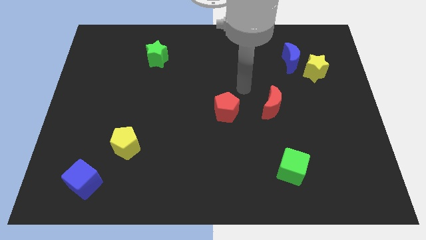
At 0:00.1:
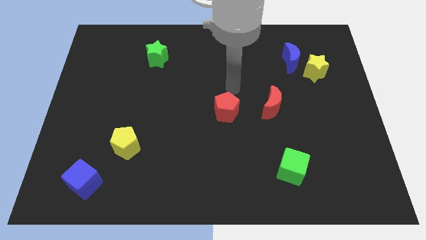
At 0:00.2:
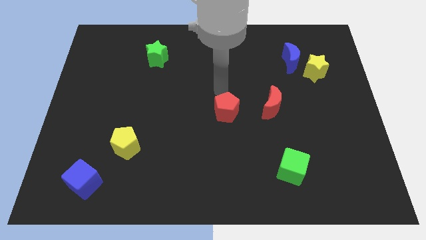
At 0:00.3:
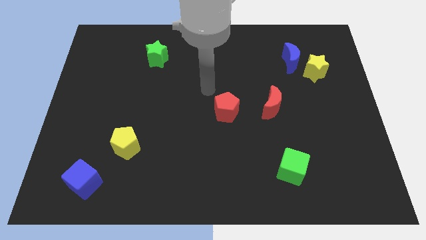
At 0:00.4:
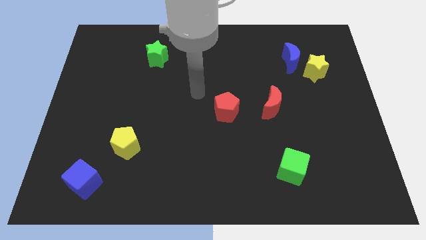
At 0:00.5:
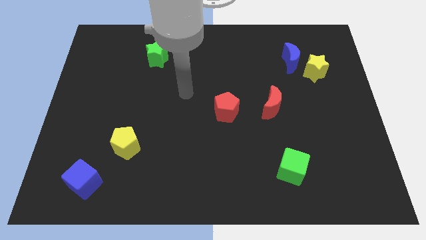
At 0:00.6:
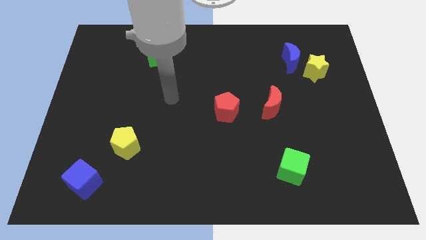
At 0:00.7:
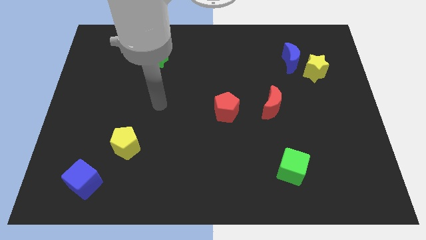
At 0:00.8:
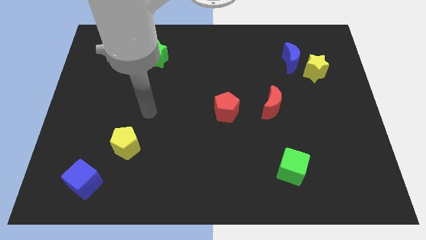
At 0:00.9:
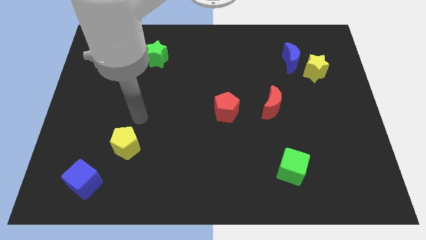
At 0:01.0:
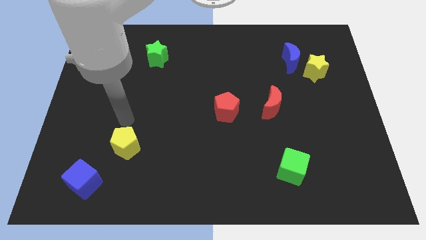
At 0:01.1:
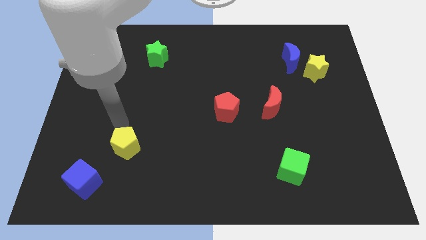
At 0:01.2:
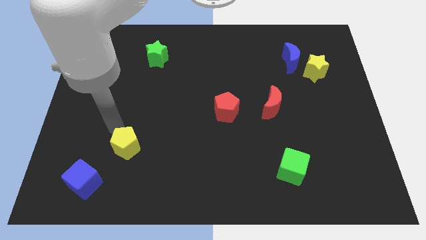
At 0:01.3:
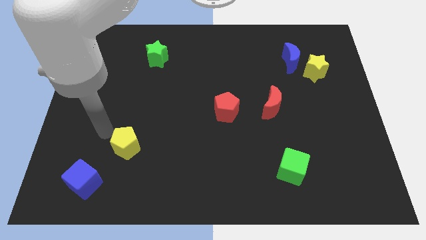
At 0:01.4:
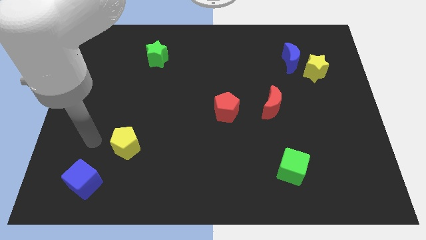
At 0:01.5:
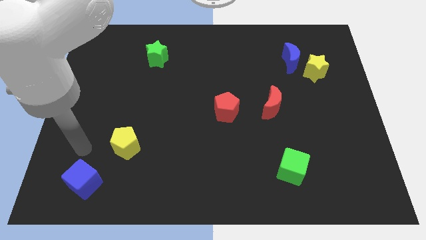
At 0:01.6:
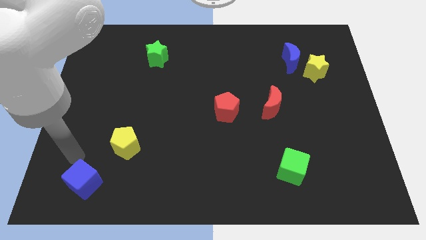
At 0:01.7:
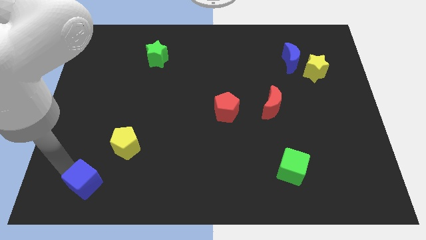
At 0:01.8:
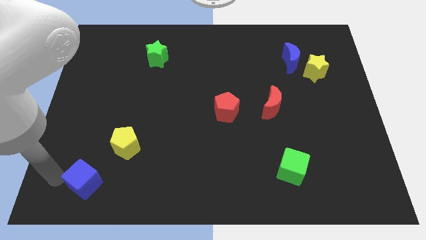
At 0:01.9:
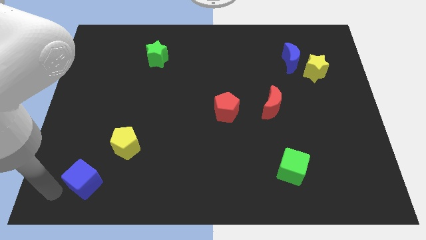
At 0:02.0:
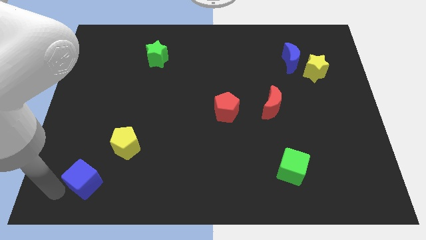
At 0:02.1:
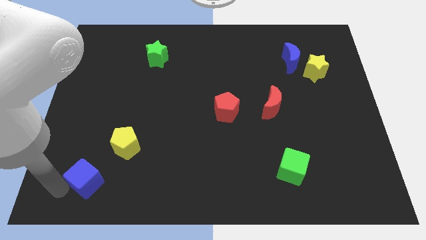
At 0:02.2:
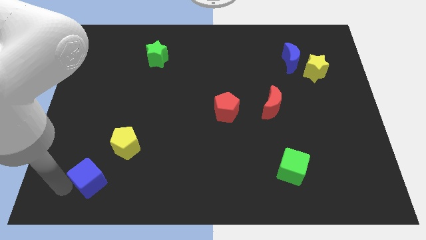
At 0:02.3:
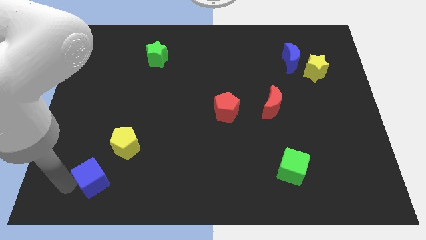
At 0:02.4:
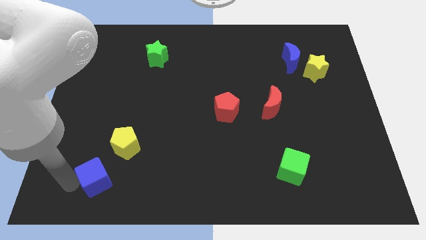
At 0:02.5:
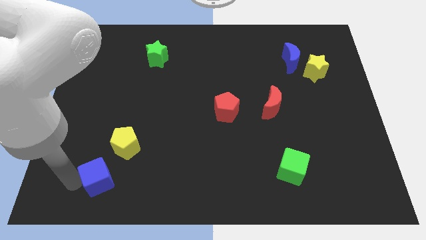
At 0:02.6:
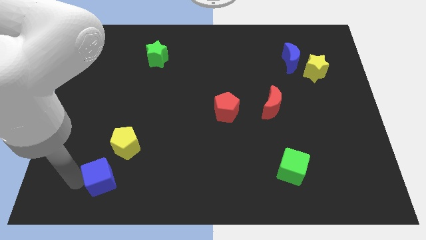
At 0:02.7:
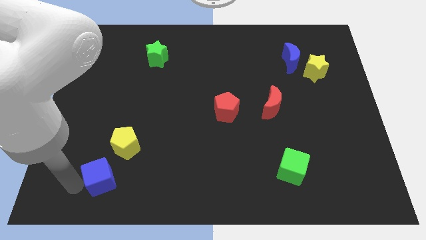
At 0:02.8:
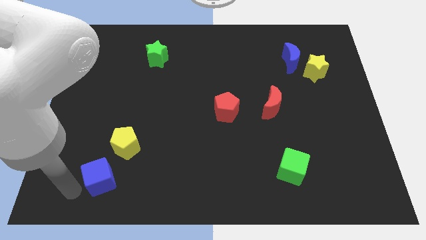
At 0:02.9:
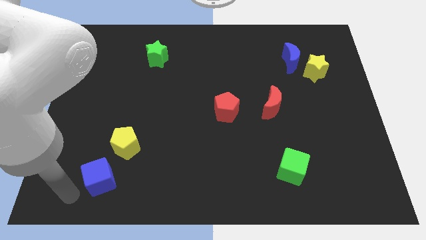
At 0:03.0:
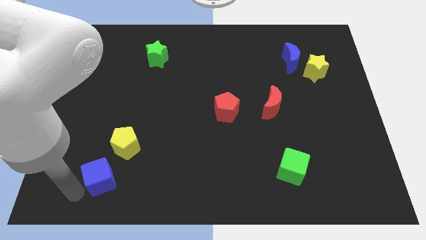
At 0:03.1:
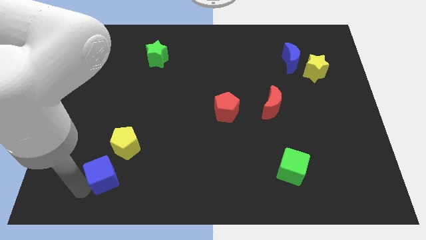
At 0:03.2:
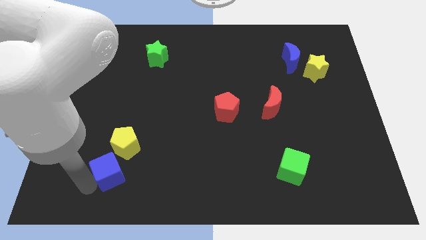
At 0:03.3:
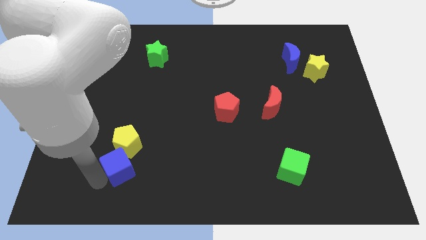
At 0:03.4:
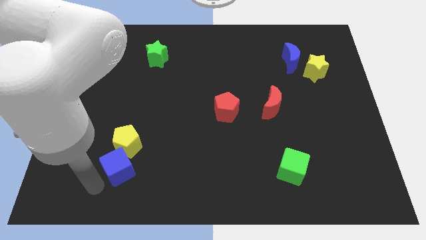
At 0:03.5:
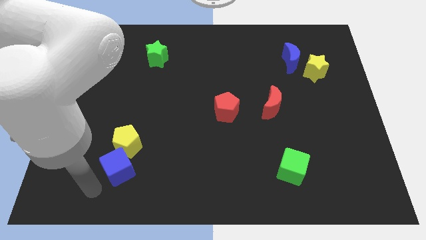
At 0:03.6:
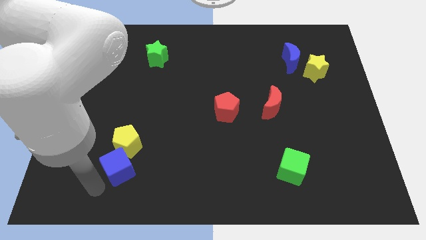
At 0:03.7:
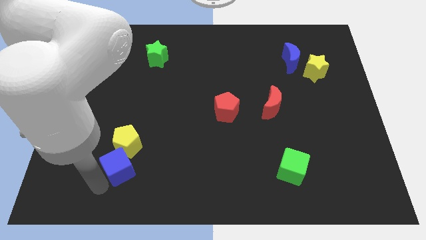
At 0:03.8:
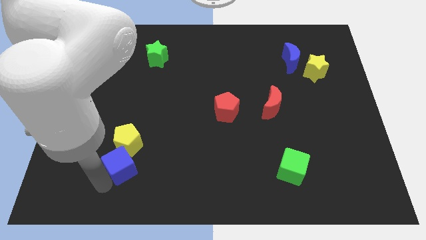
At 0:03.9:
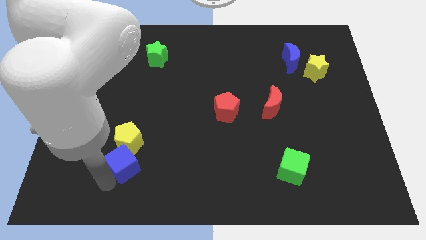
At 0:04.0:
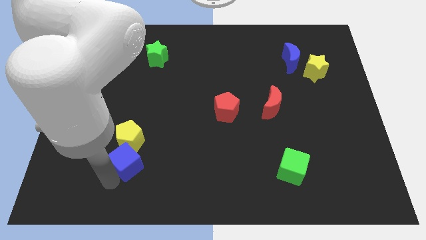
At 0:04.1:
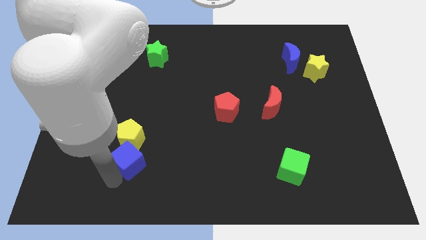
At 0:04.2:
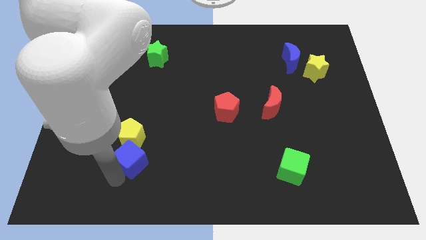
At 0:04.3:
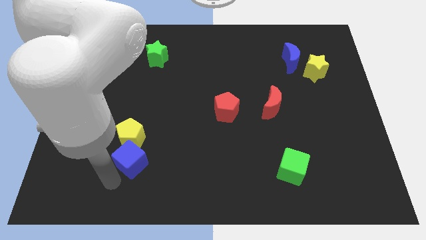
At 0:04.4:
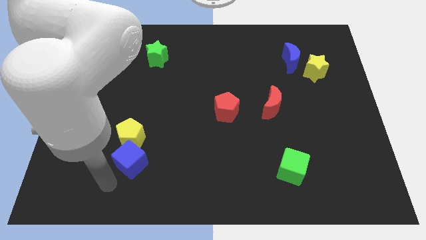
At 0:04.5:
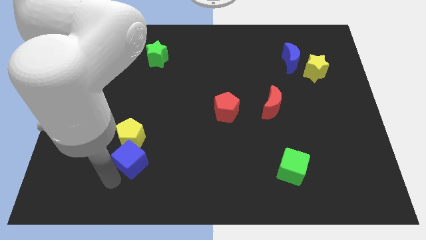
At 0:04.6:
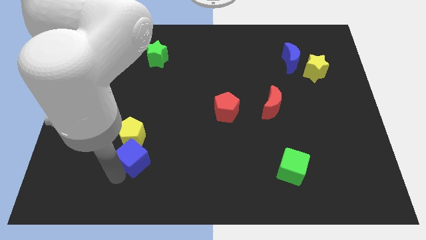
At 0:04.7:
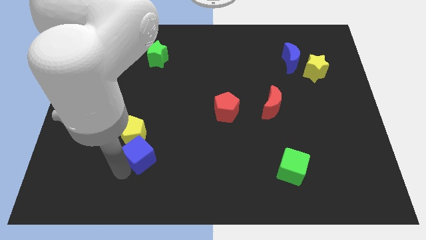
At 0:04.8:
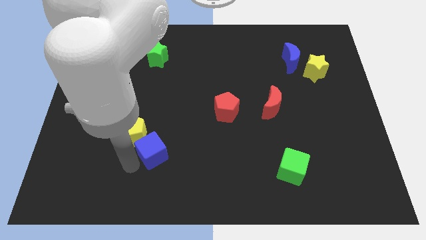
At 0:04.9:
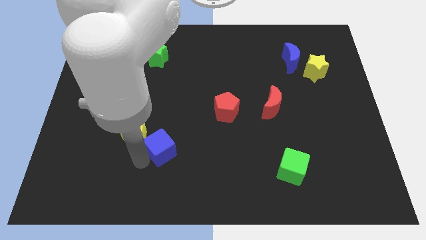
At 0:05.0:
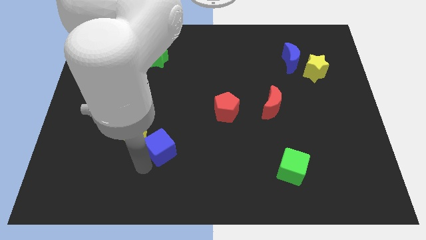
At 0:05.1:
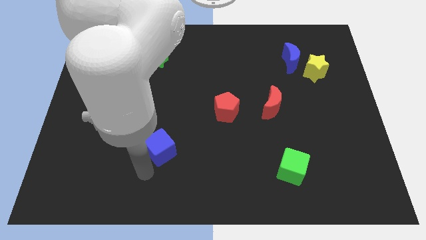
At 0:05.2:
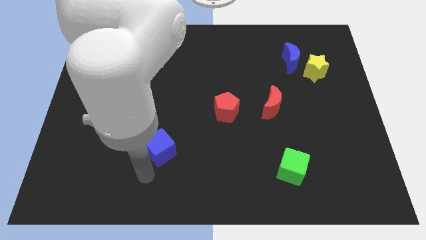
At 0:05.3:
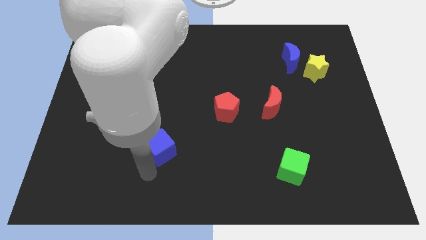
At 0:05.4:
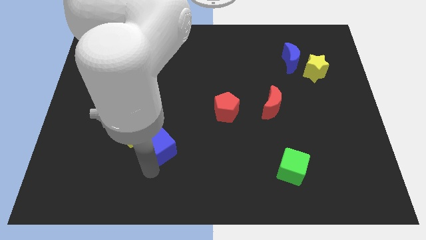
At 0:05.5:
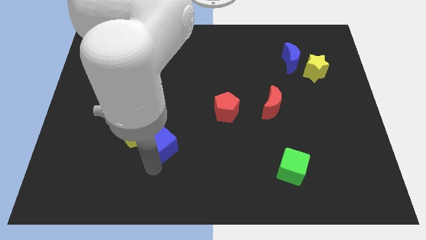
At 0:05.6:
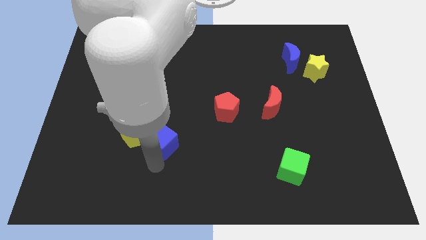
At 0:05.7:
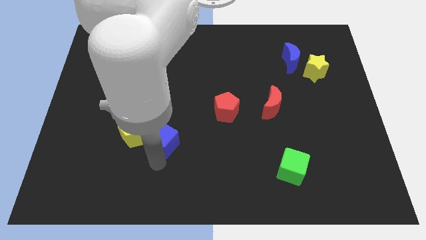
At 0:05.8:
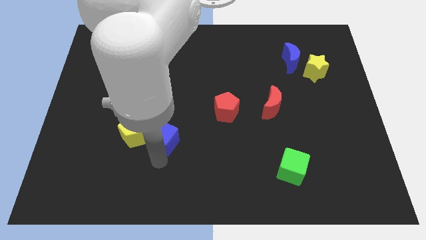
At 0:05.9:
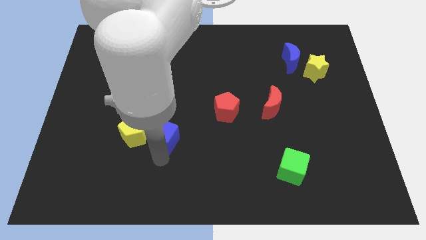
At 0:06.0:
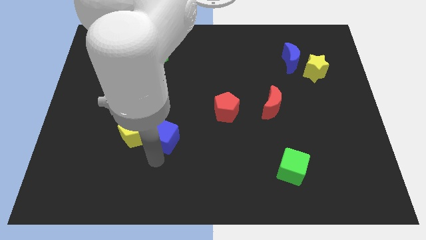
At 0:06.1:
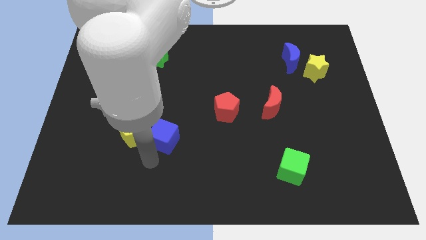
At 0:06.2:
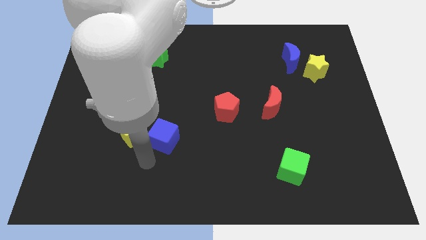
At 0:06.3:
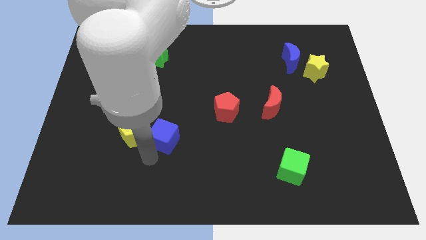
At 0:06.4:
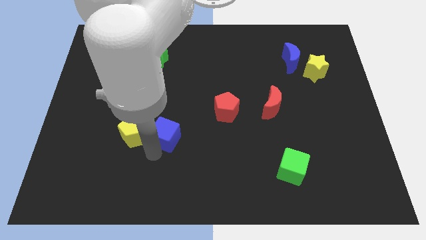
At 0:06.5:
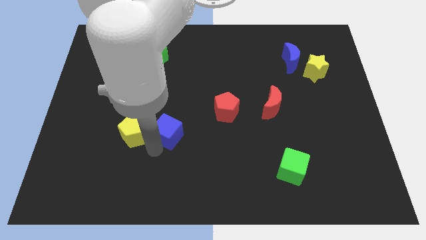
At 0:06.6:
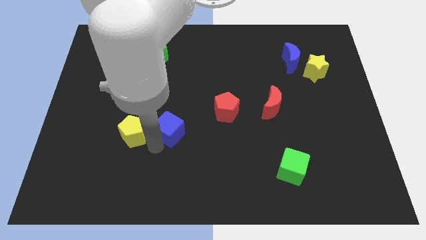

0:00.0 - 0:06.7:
move the blue cube up and to the right

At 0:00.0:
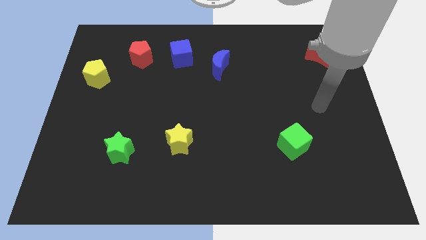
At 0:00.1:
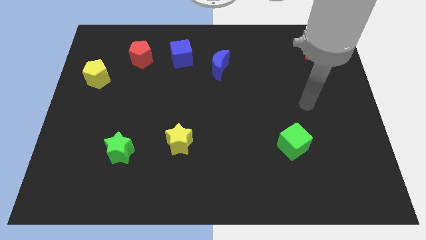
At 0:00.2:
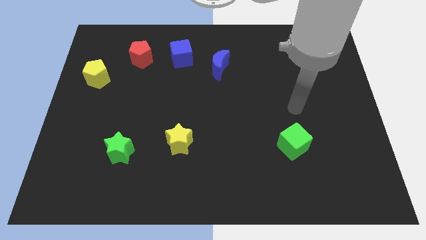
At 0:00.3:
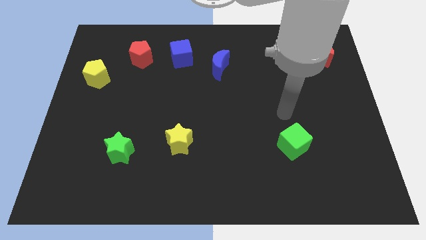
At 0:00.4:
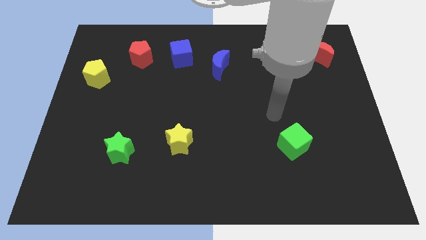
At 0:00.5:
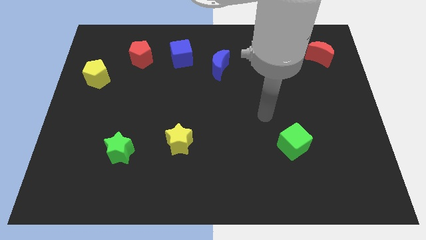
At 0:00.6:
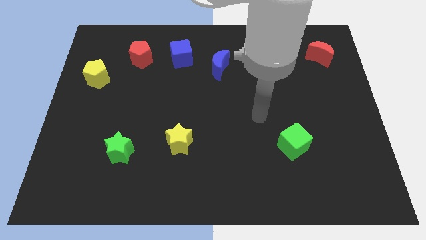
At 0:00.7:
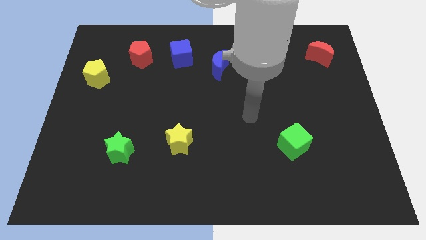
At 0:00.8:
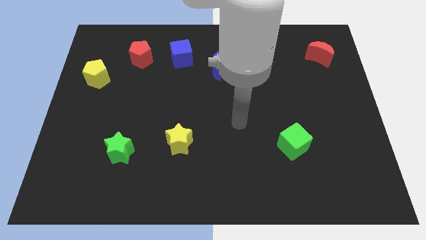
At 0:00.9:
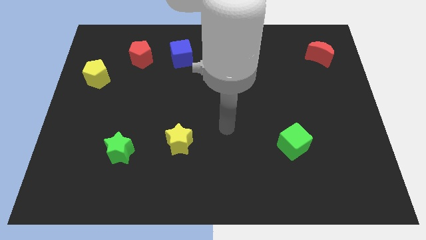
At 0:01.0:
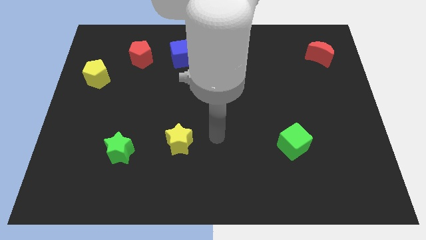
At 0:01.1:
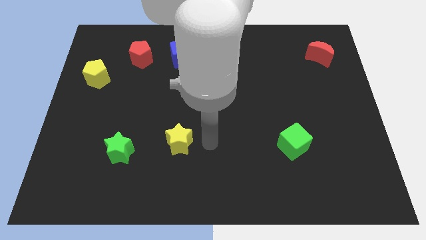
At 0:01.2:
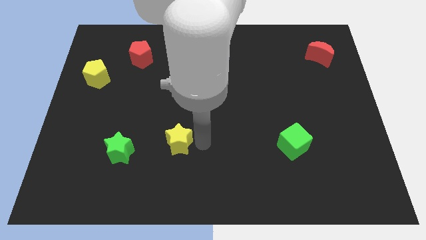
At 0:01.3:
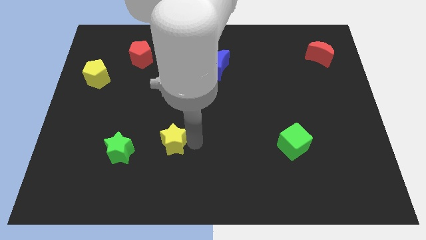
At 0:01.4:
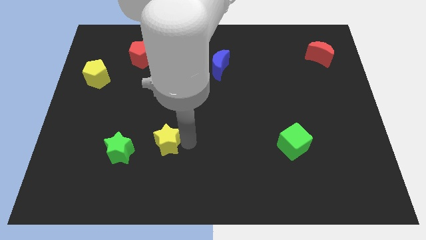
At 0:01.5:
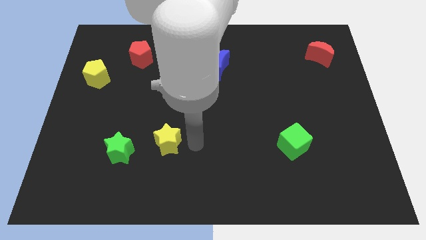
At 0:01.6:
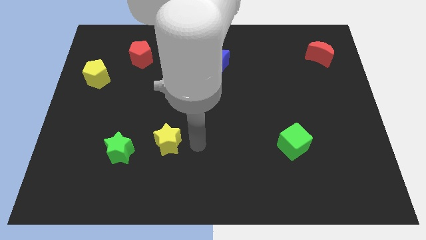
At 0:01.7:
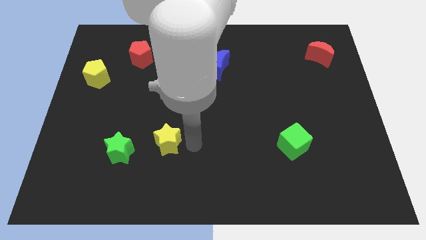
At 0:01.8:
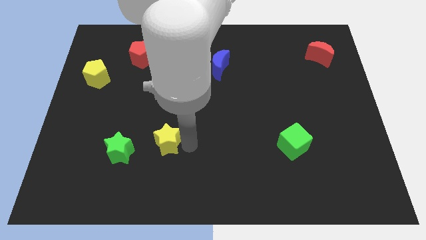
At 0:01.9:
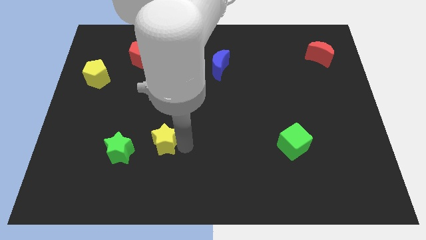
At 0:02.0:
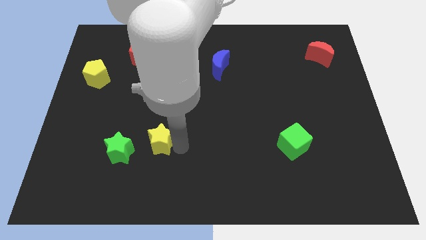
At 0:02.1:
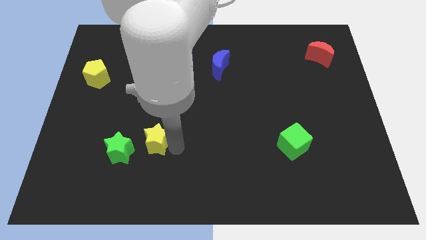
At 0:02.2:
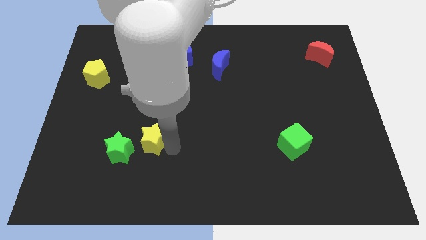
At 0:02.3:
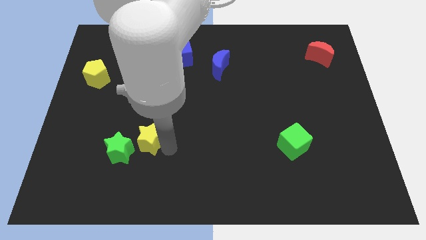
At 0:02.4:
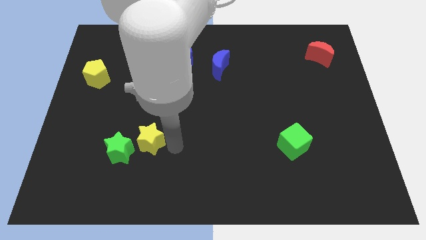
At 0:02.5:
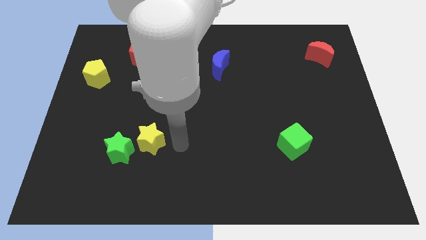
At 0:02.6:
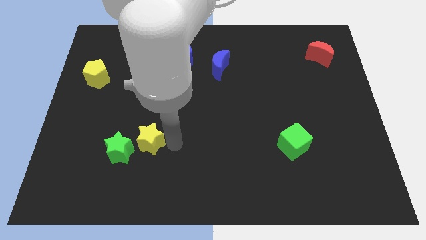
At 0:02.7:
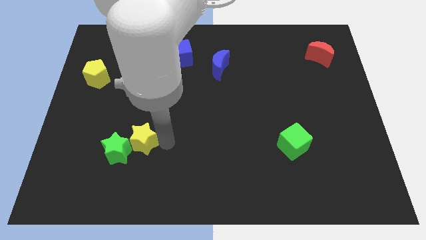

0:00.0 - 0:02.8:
move the yellow star to the left slightly
